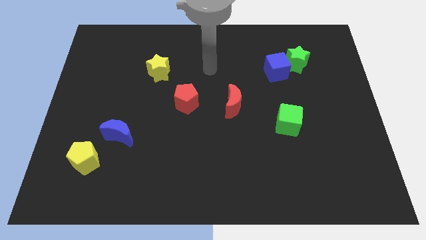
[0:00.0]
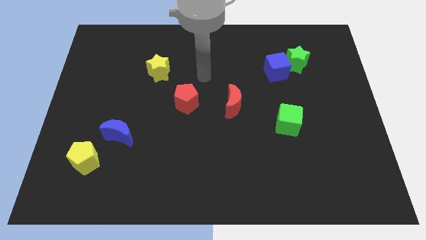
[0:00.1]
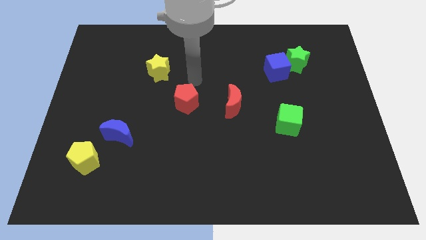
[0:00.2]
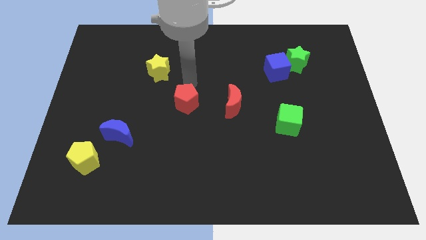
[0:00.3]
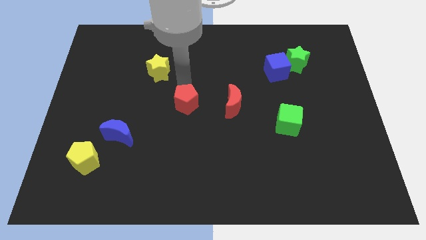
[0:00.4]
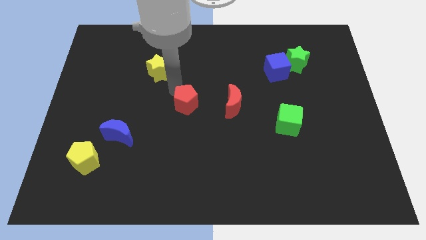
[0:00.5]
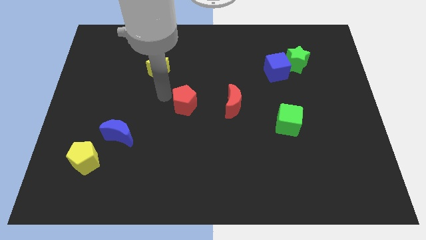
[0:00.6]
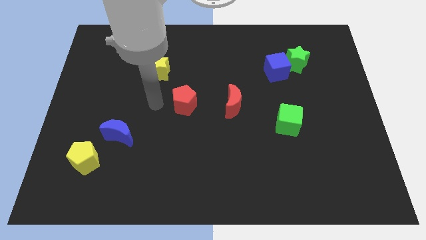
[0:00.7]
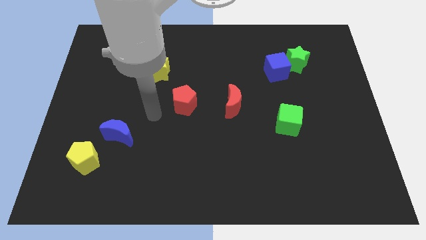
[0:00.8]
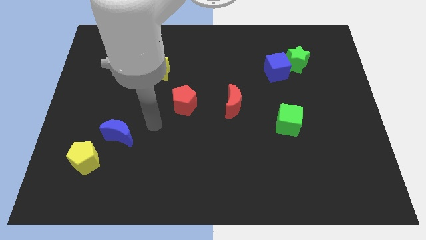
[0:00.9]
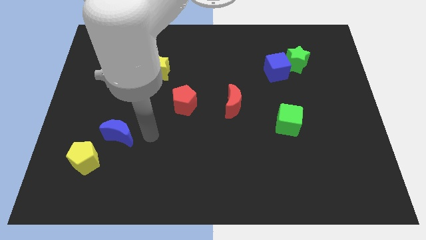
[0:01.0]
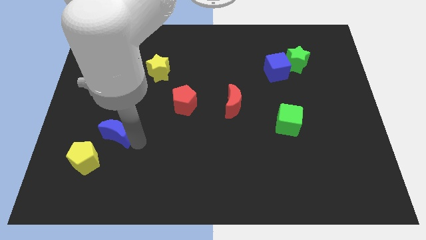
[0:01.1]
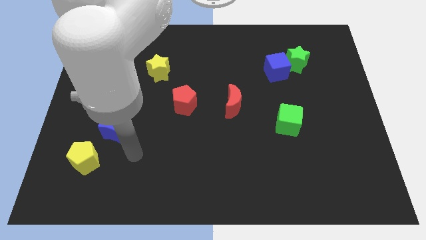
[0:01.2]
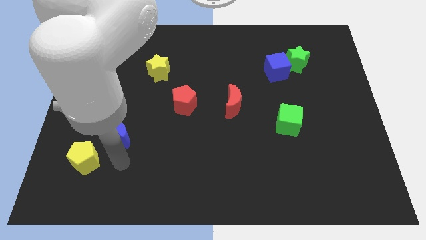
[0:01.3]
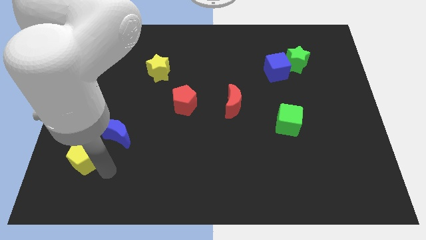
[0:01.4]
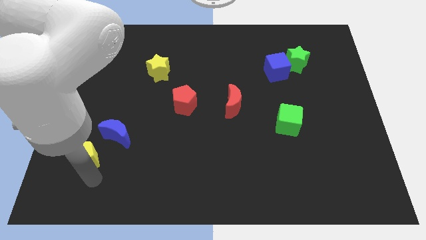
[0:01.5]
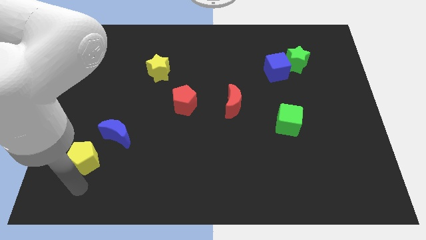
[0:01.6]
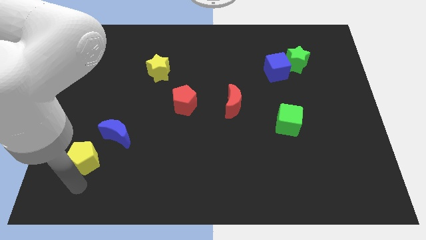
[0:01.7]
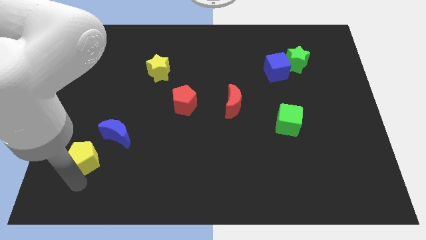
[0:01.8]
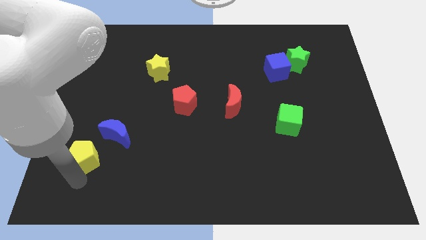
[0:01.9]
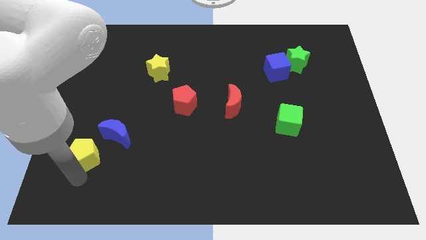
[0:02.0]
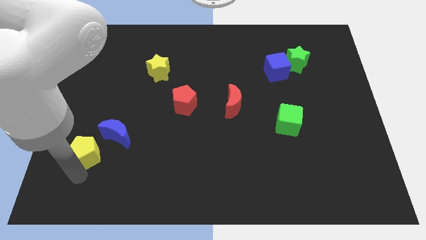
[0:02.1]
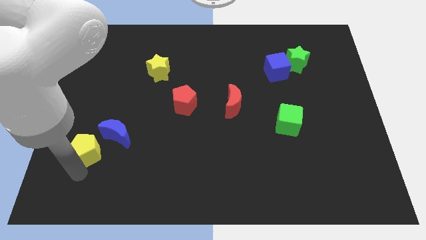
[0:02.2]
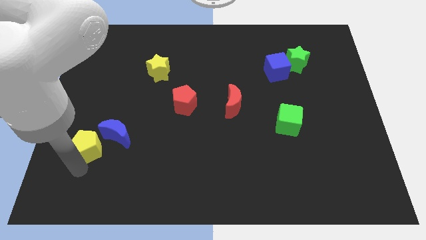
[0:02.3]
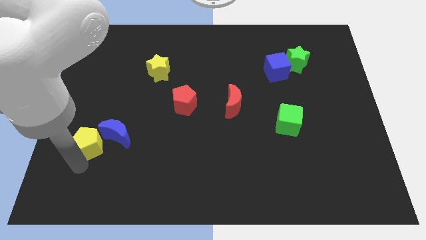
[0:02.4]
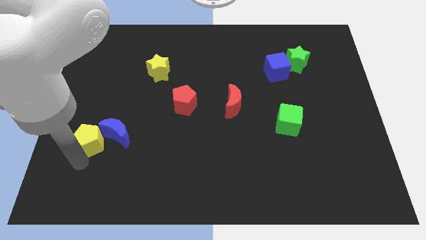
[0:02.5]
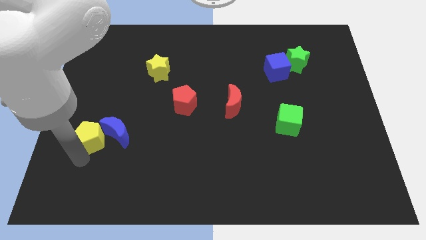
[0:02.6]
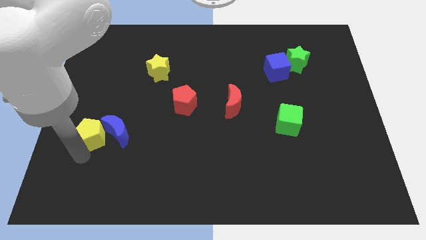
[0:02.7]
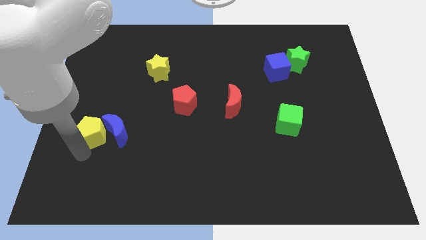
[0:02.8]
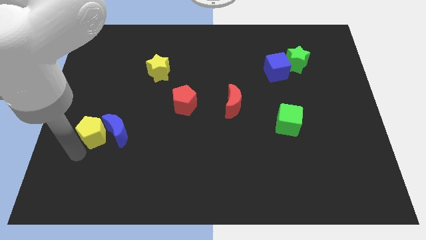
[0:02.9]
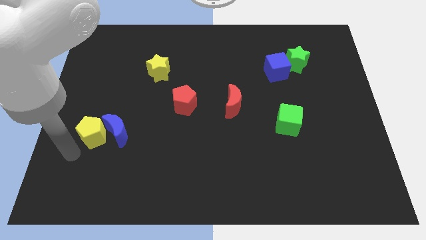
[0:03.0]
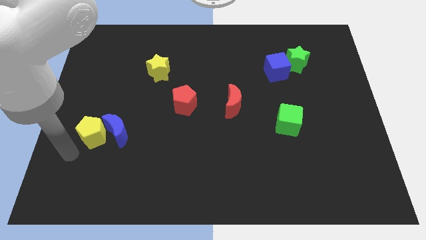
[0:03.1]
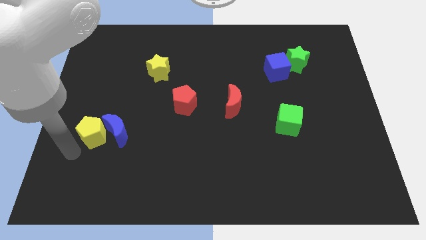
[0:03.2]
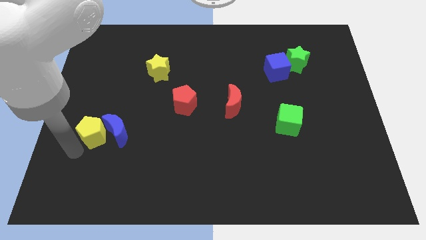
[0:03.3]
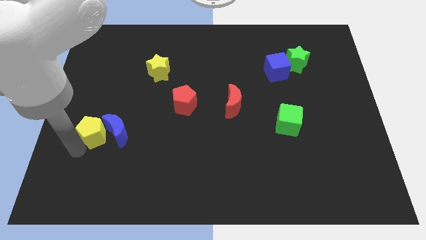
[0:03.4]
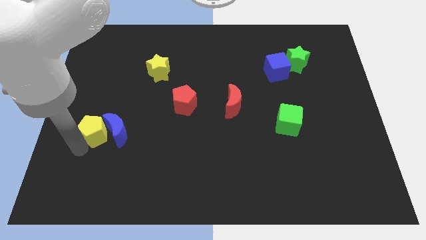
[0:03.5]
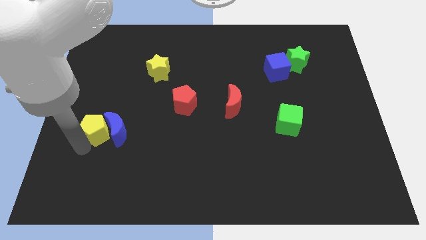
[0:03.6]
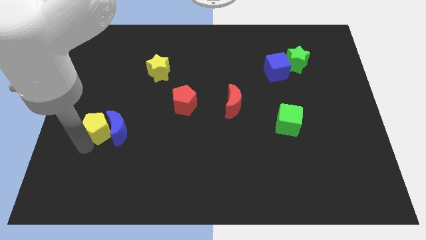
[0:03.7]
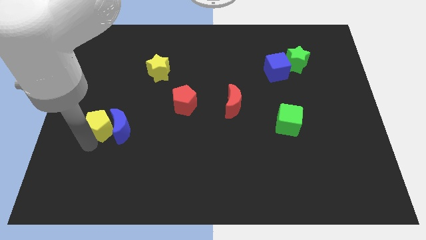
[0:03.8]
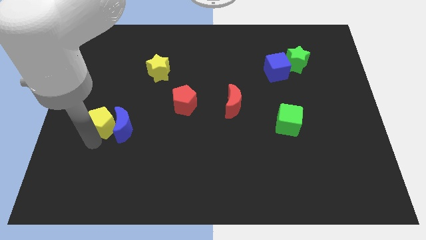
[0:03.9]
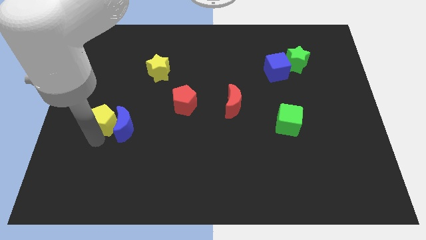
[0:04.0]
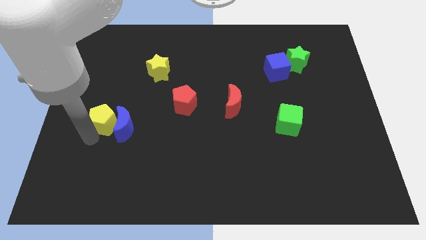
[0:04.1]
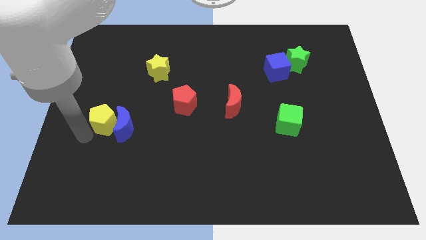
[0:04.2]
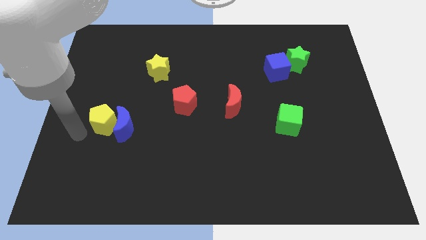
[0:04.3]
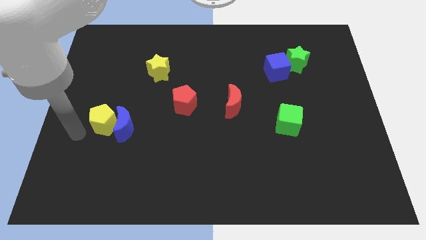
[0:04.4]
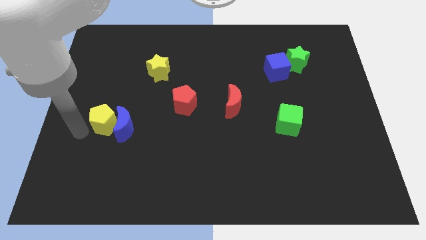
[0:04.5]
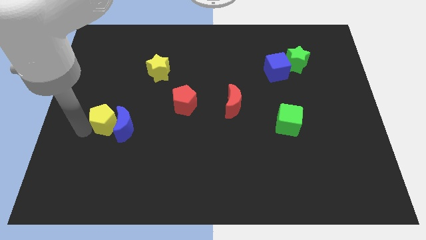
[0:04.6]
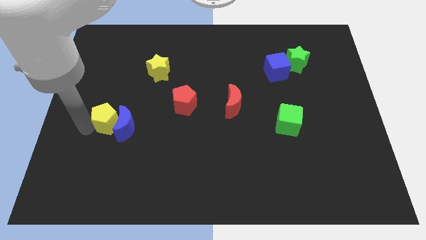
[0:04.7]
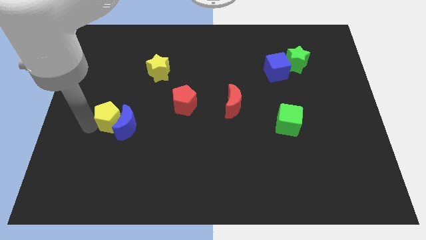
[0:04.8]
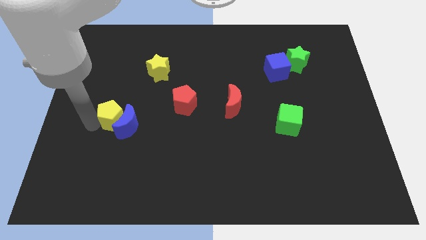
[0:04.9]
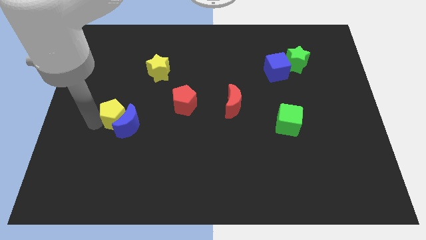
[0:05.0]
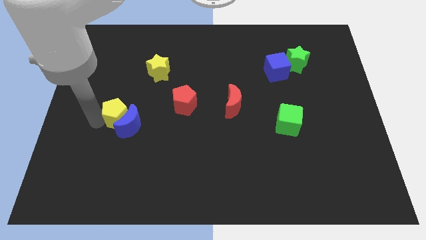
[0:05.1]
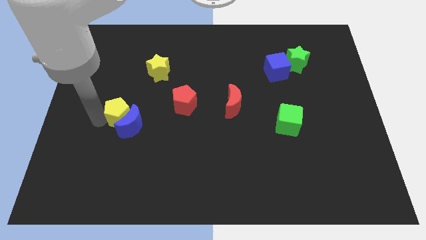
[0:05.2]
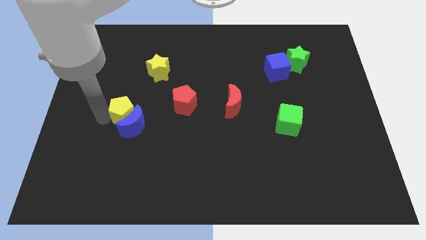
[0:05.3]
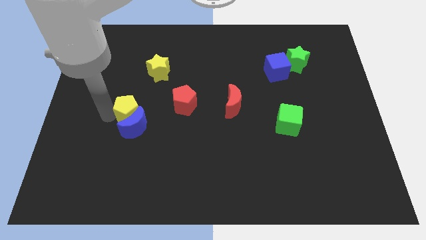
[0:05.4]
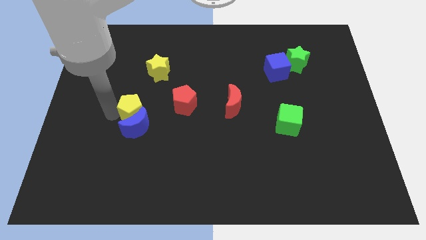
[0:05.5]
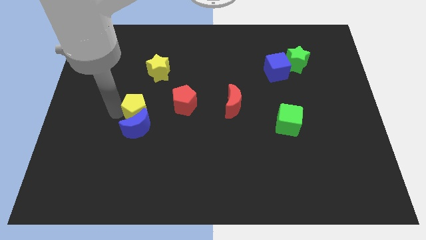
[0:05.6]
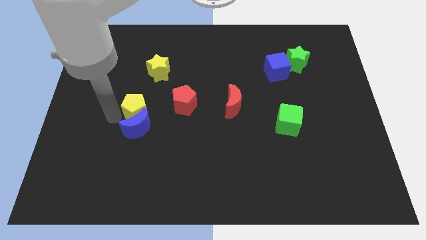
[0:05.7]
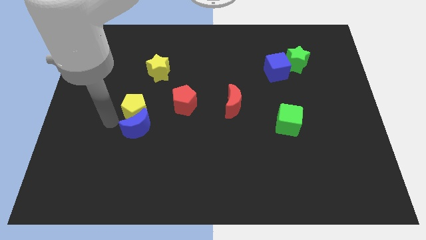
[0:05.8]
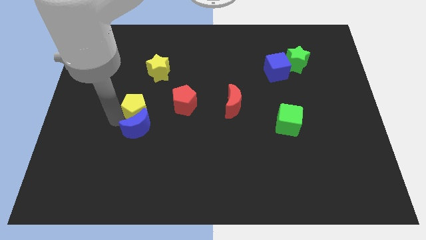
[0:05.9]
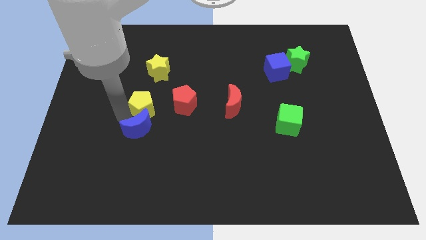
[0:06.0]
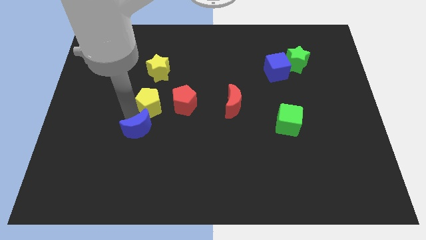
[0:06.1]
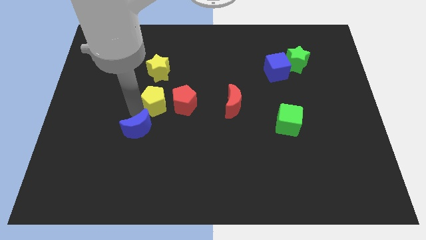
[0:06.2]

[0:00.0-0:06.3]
push the yellow pentagon upwards and then right

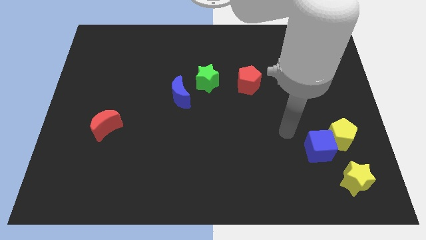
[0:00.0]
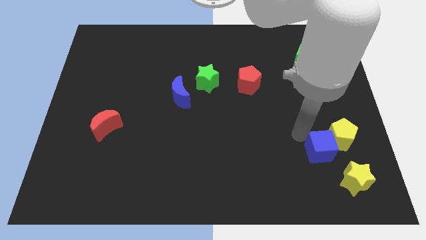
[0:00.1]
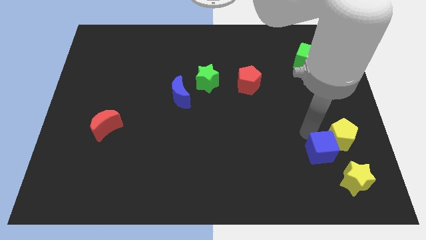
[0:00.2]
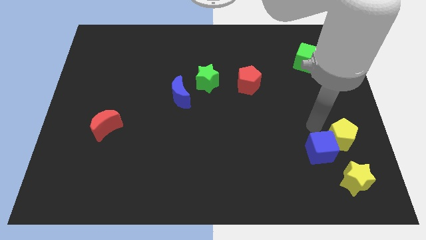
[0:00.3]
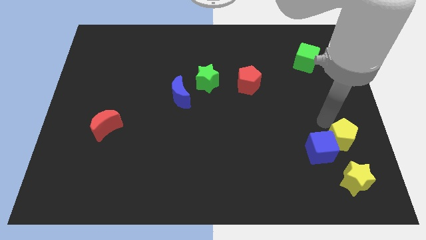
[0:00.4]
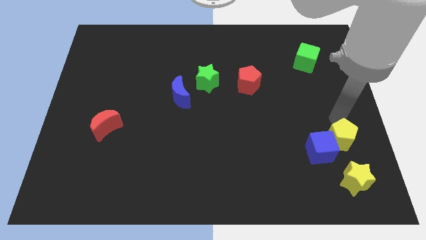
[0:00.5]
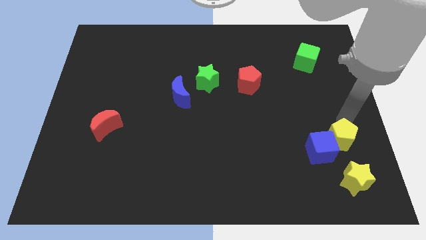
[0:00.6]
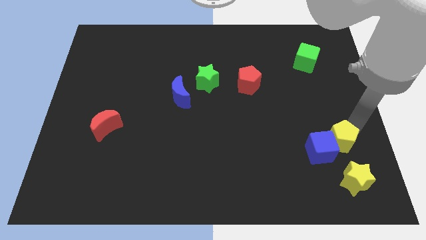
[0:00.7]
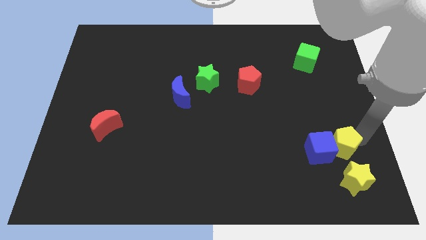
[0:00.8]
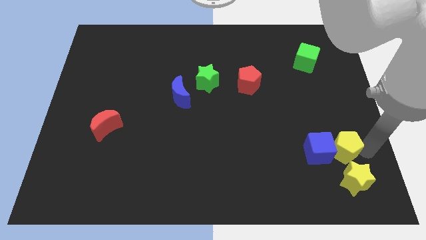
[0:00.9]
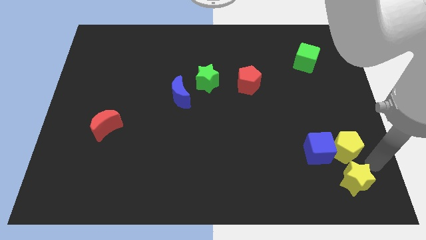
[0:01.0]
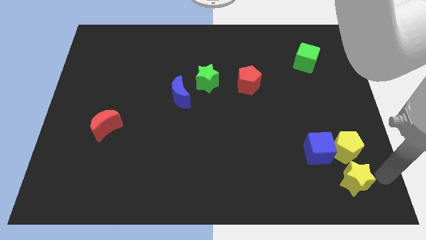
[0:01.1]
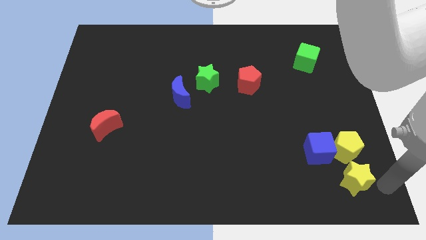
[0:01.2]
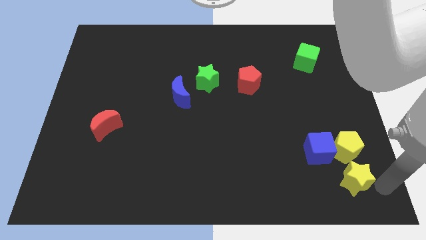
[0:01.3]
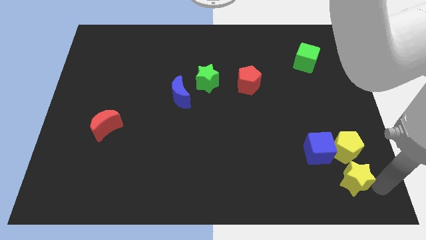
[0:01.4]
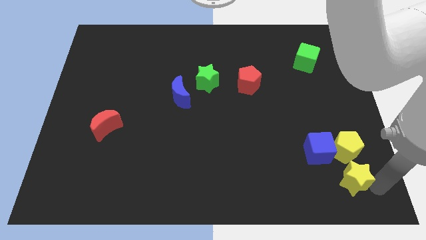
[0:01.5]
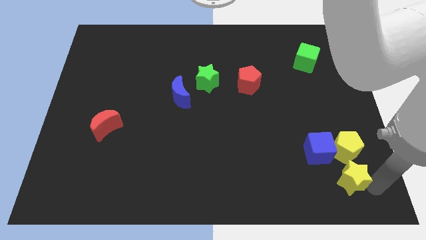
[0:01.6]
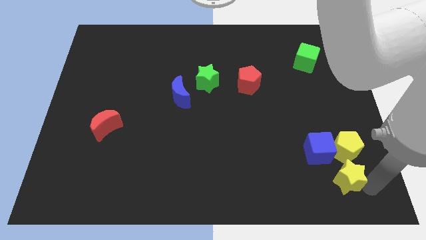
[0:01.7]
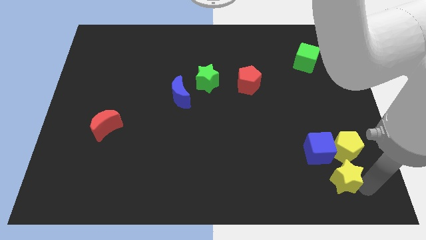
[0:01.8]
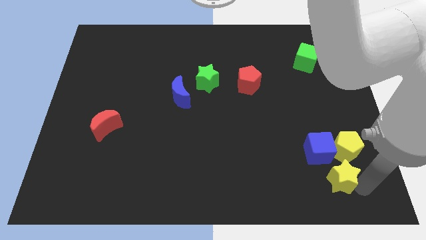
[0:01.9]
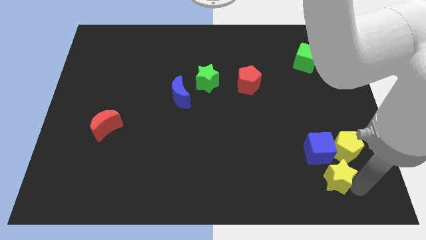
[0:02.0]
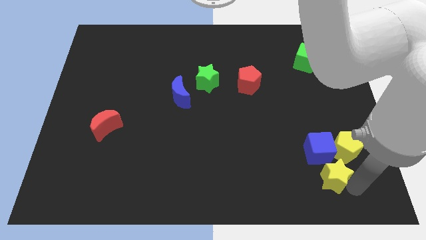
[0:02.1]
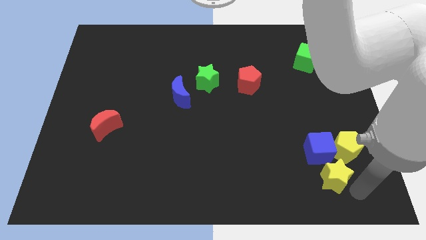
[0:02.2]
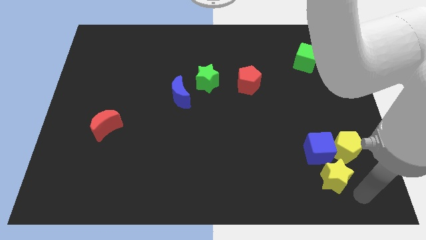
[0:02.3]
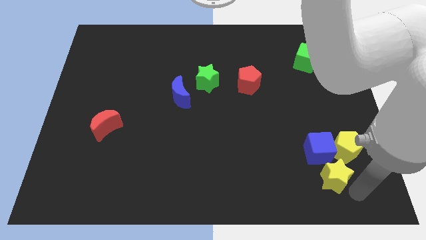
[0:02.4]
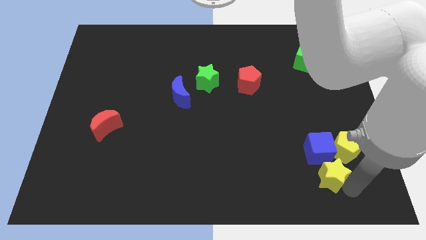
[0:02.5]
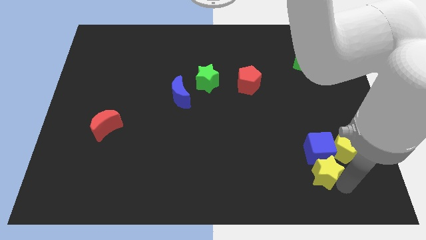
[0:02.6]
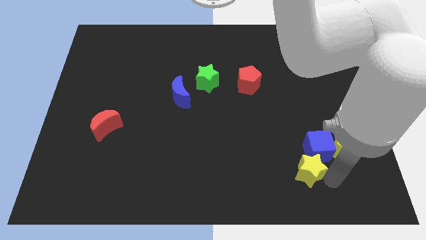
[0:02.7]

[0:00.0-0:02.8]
move the yellow star diagonally up and to the left slightly
